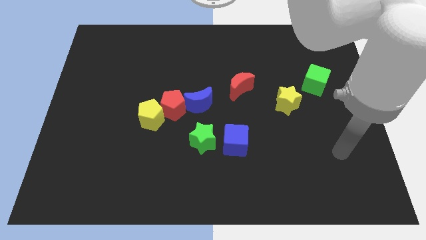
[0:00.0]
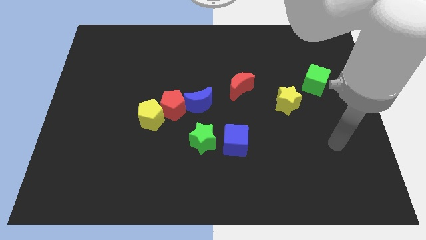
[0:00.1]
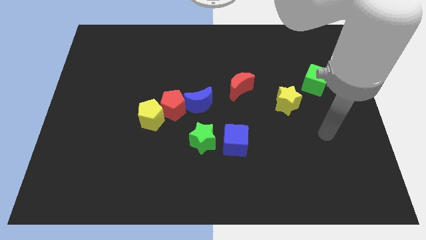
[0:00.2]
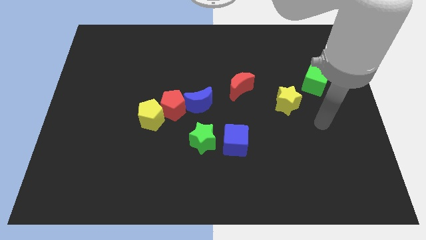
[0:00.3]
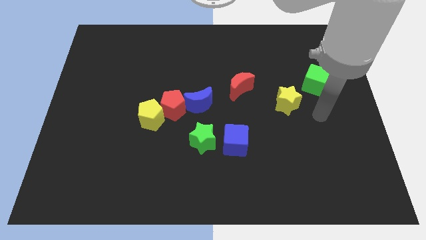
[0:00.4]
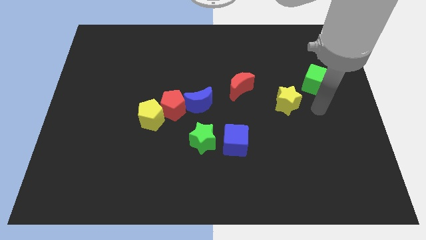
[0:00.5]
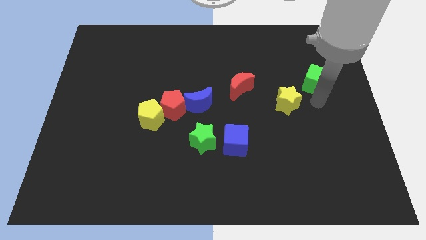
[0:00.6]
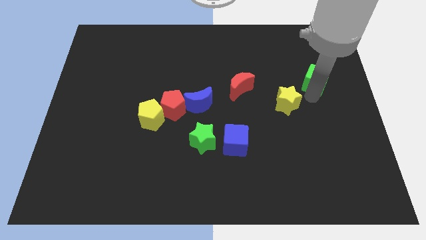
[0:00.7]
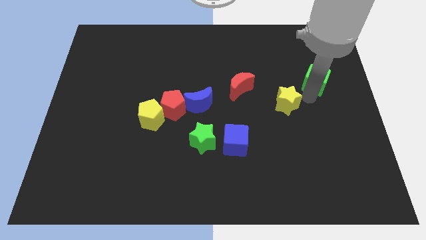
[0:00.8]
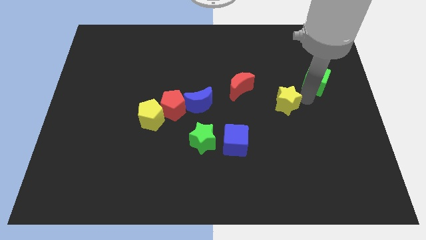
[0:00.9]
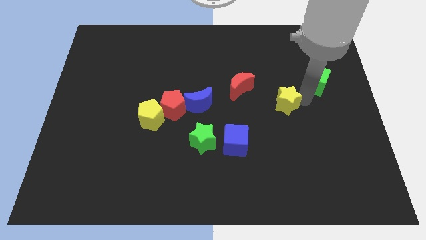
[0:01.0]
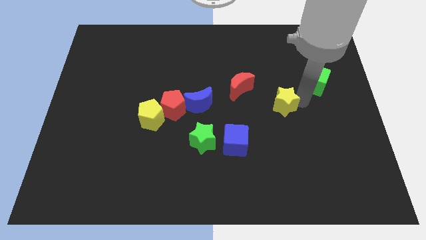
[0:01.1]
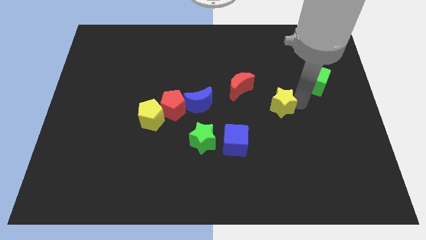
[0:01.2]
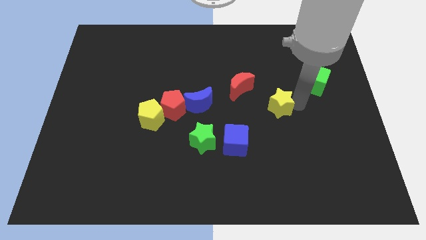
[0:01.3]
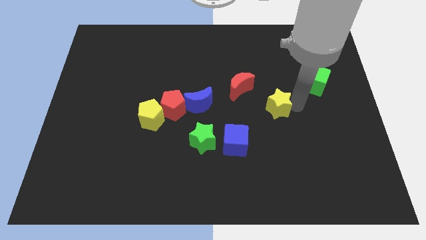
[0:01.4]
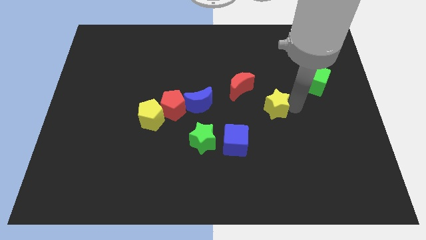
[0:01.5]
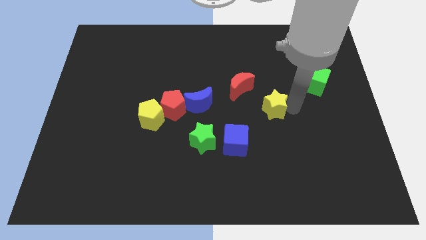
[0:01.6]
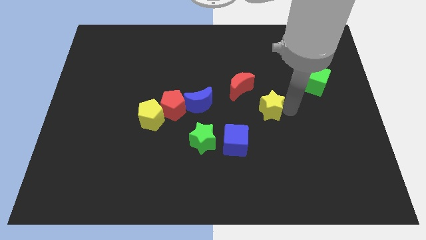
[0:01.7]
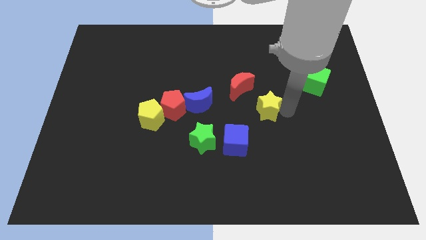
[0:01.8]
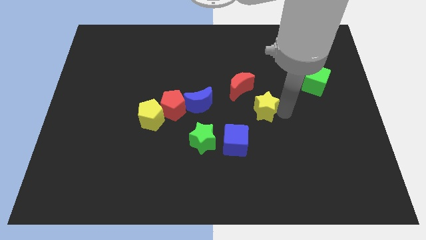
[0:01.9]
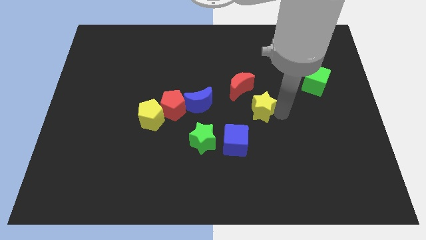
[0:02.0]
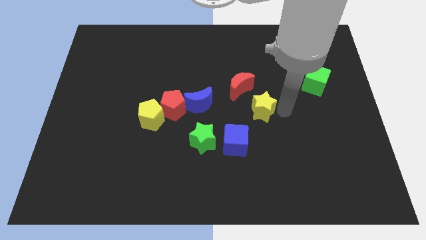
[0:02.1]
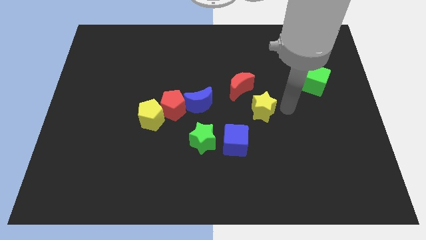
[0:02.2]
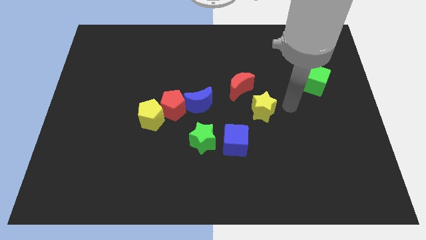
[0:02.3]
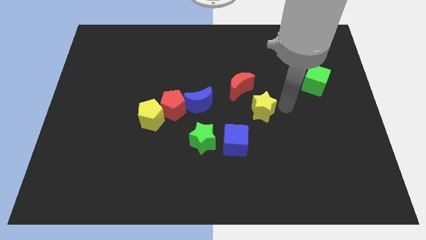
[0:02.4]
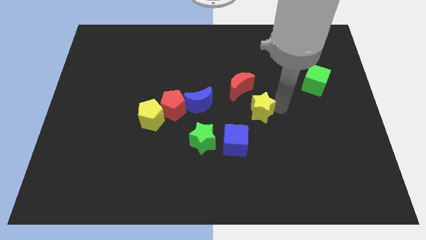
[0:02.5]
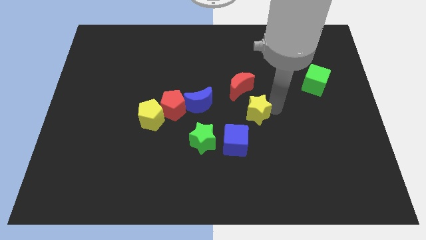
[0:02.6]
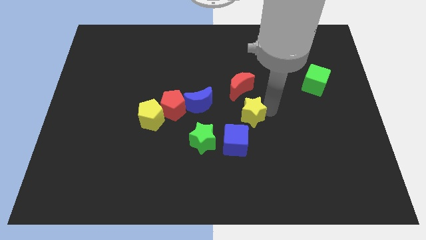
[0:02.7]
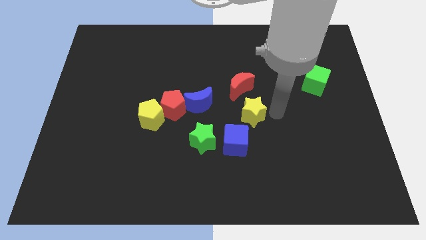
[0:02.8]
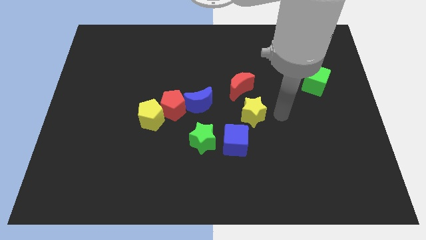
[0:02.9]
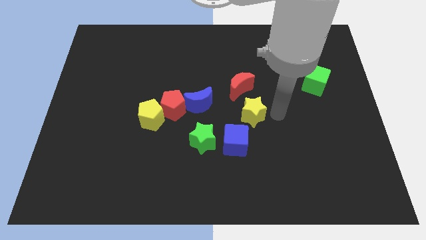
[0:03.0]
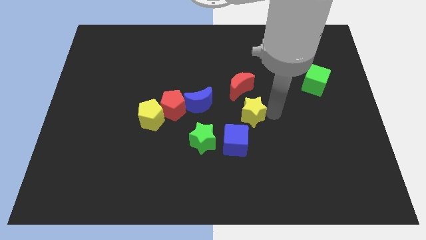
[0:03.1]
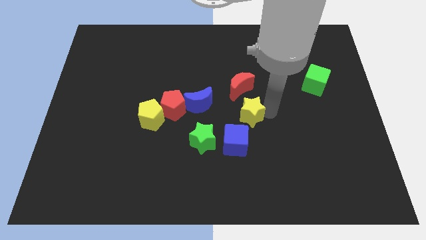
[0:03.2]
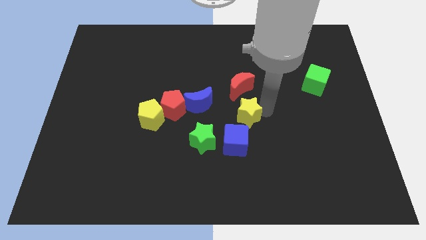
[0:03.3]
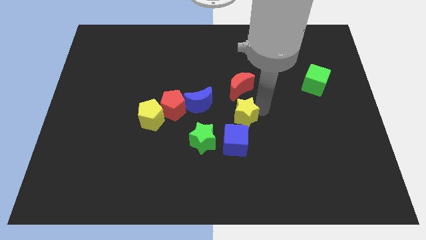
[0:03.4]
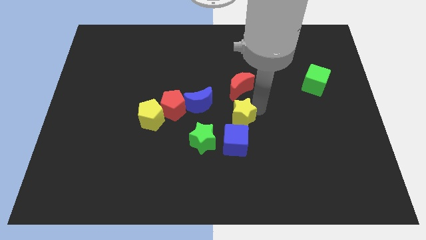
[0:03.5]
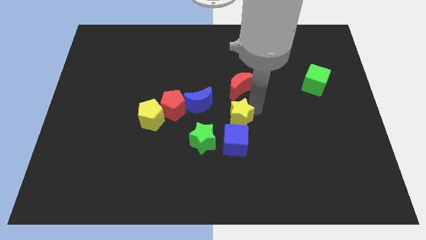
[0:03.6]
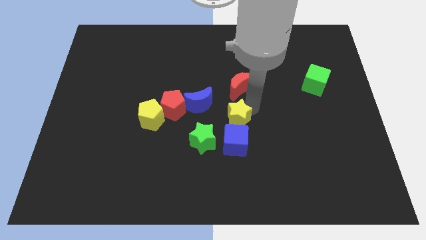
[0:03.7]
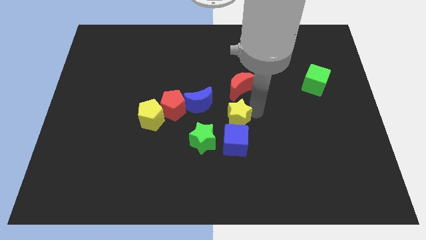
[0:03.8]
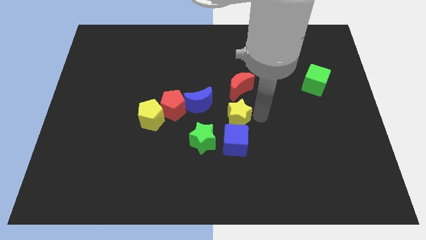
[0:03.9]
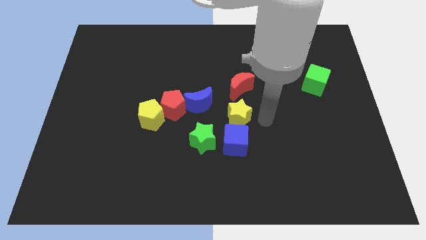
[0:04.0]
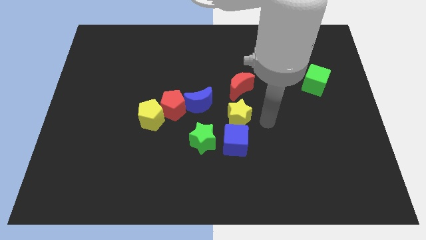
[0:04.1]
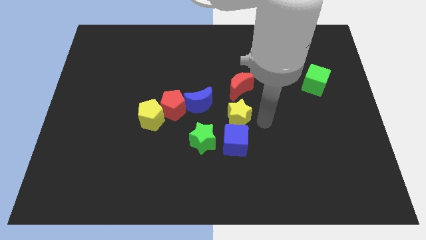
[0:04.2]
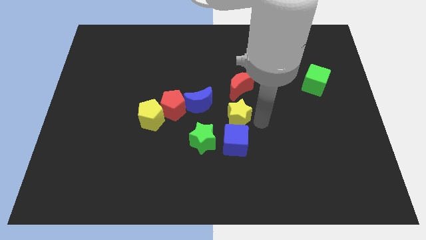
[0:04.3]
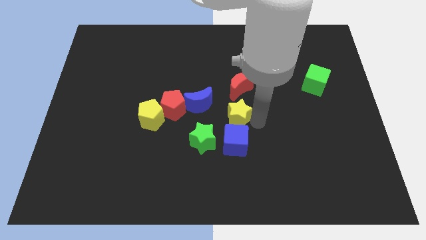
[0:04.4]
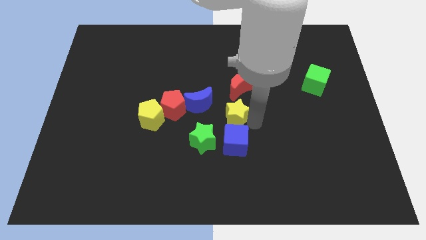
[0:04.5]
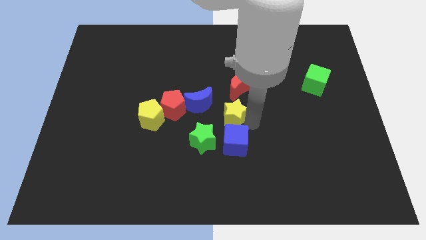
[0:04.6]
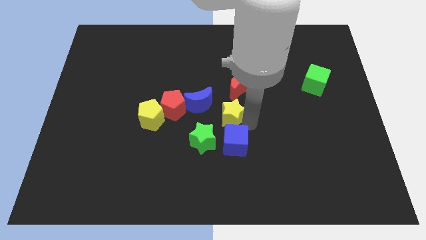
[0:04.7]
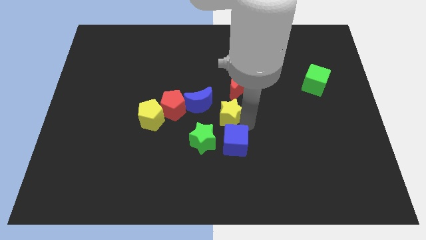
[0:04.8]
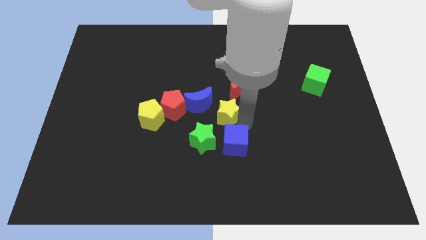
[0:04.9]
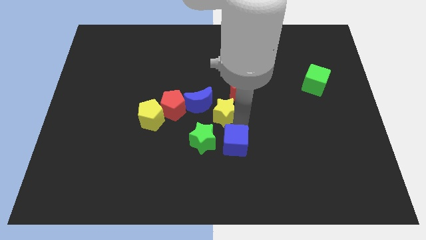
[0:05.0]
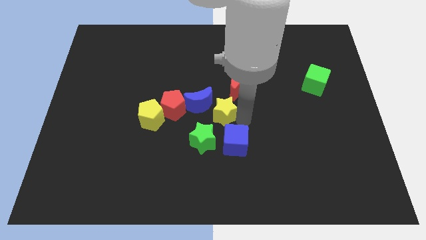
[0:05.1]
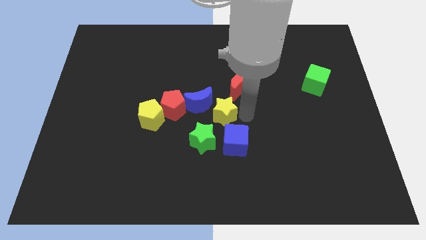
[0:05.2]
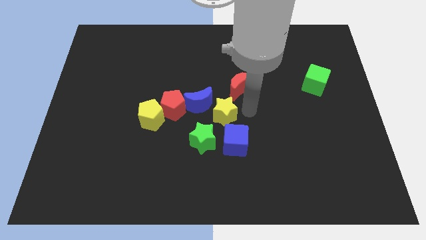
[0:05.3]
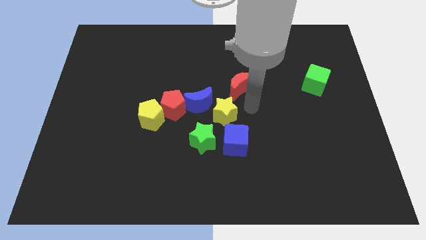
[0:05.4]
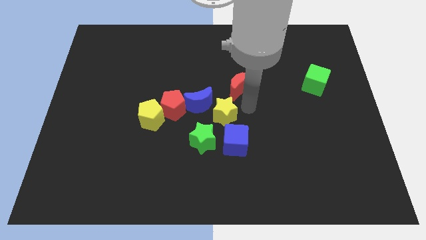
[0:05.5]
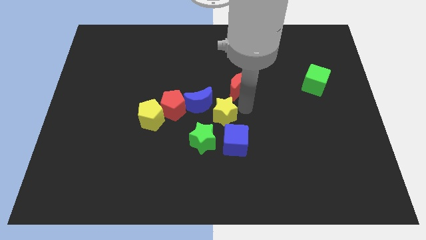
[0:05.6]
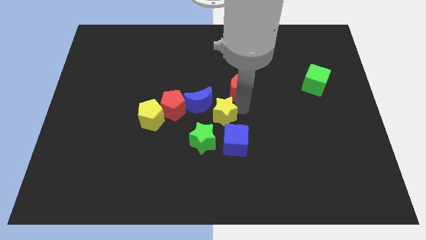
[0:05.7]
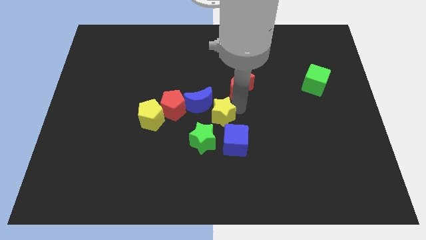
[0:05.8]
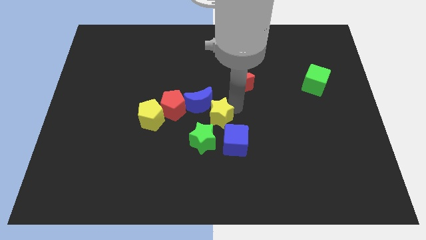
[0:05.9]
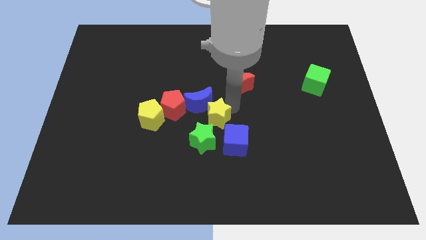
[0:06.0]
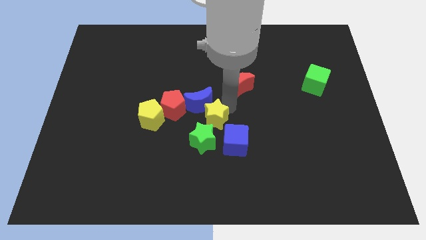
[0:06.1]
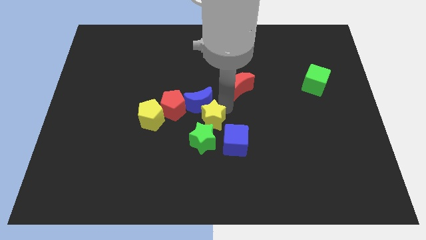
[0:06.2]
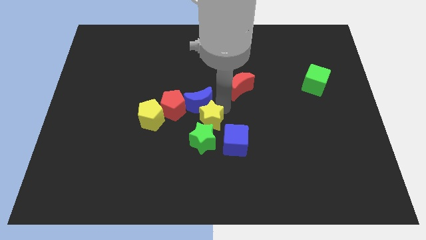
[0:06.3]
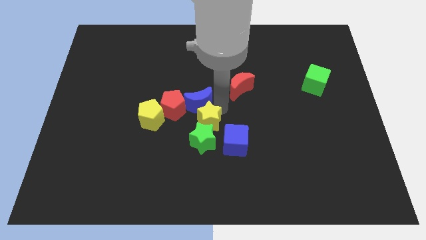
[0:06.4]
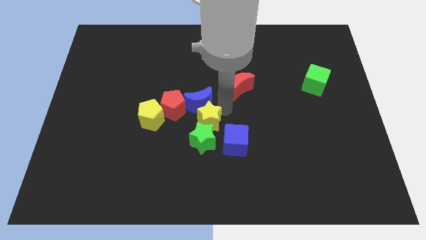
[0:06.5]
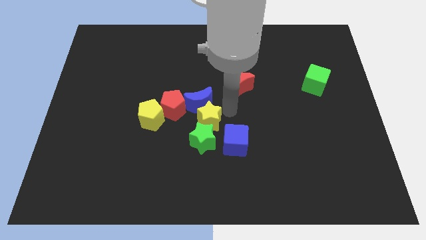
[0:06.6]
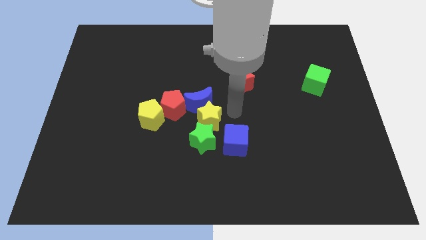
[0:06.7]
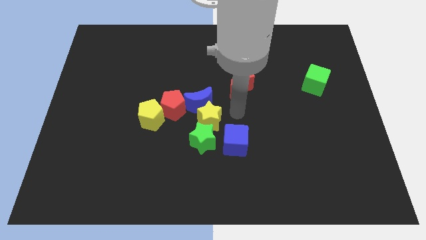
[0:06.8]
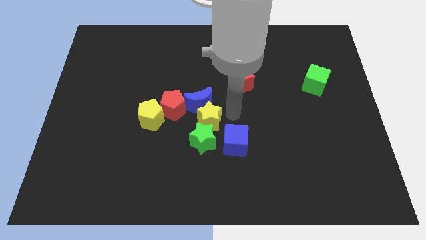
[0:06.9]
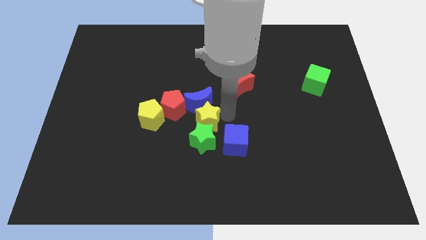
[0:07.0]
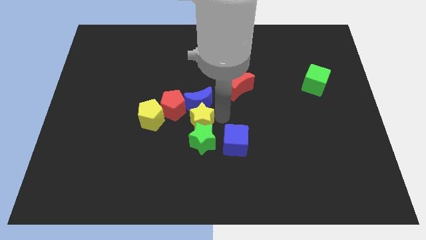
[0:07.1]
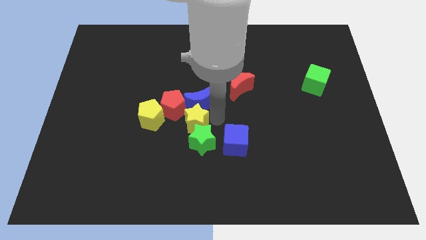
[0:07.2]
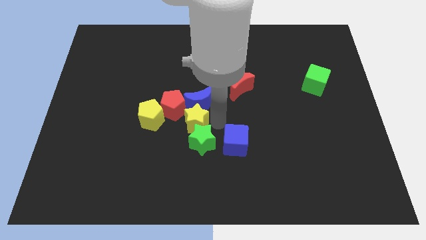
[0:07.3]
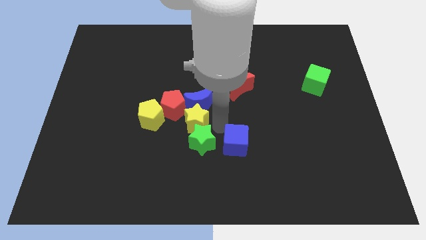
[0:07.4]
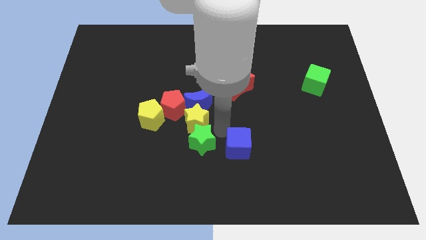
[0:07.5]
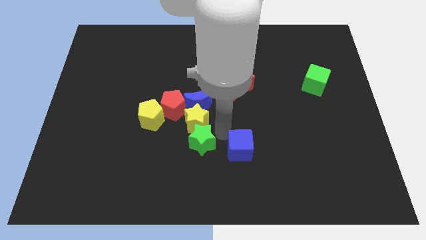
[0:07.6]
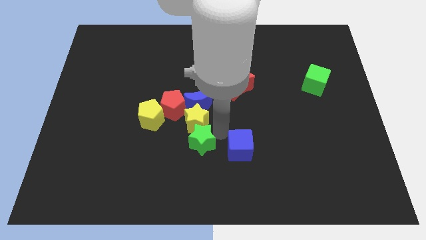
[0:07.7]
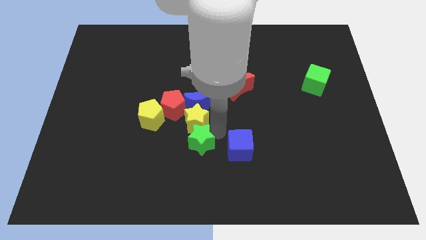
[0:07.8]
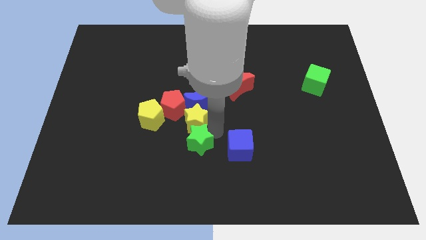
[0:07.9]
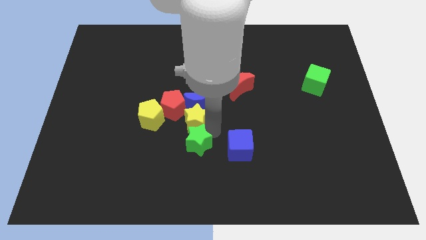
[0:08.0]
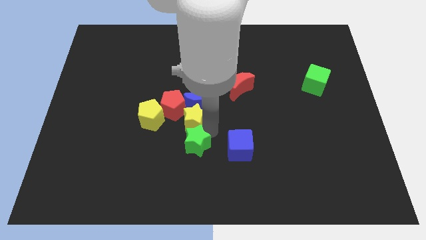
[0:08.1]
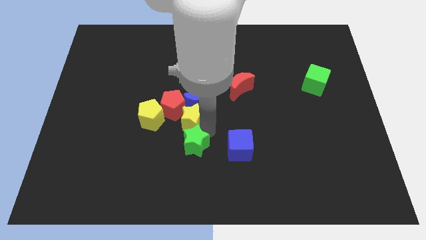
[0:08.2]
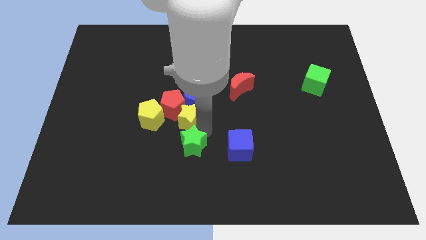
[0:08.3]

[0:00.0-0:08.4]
push the yellow star close to the red pentagon
